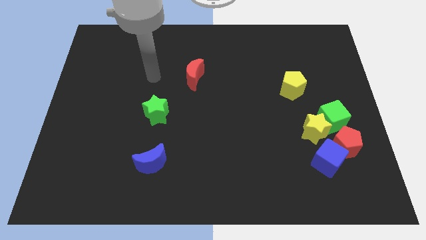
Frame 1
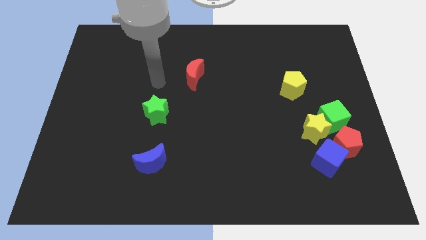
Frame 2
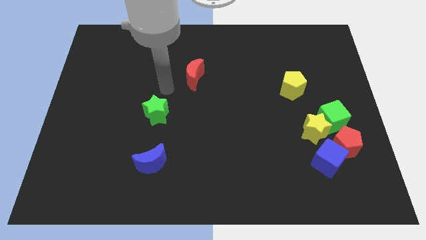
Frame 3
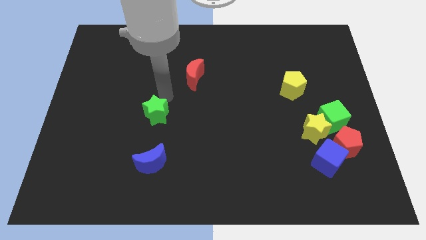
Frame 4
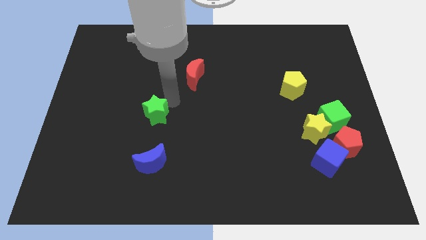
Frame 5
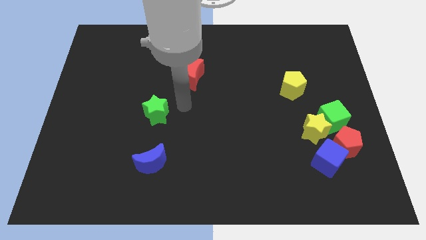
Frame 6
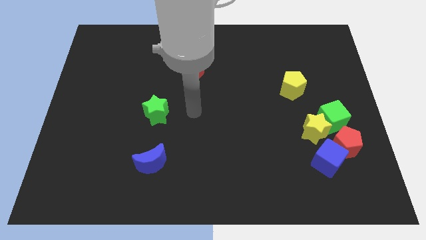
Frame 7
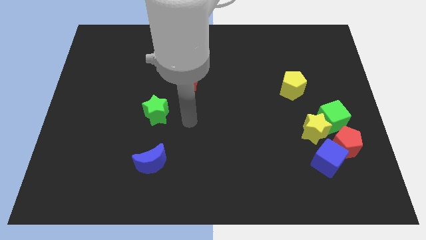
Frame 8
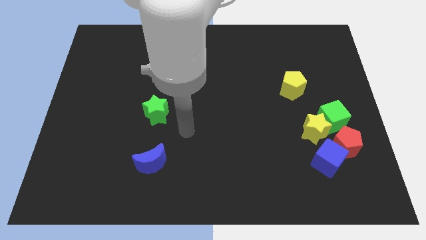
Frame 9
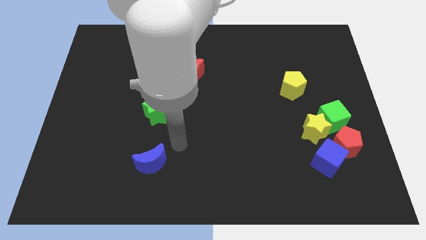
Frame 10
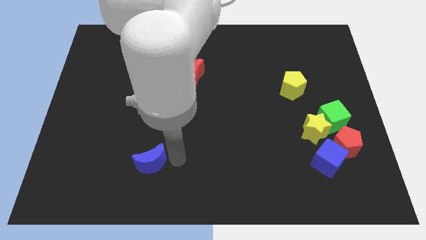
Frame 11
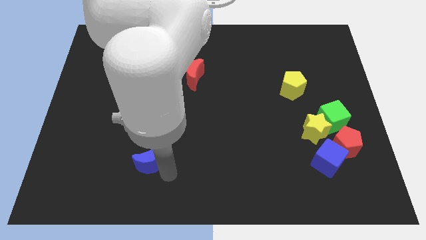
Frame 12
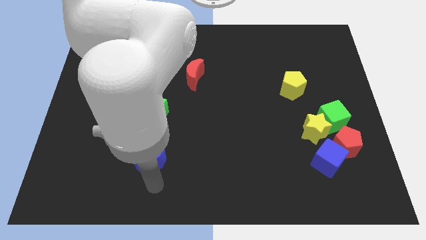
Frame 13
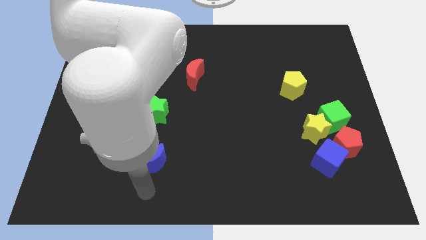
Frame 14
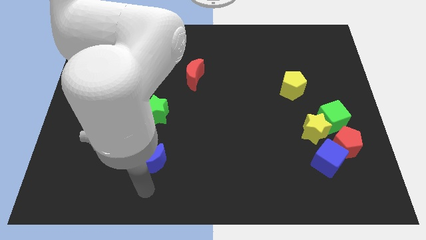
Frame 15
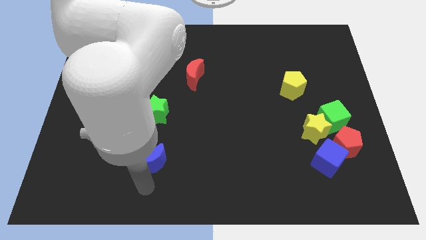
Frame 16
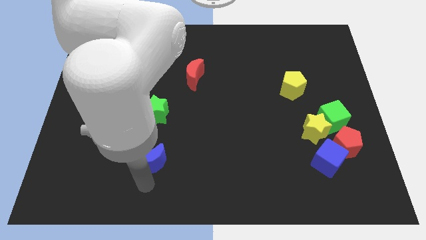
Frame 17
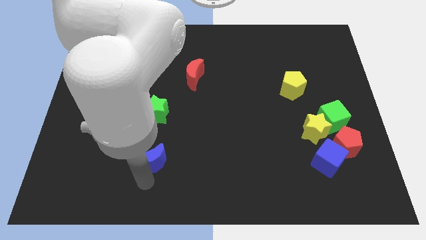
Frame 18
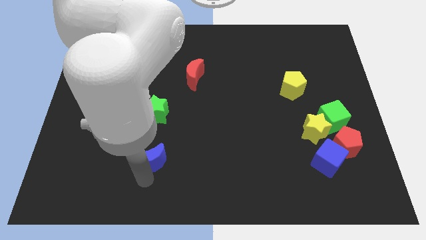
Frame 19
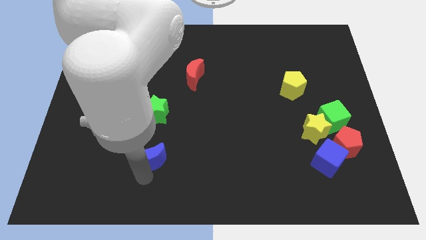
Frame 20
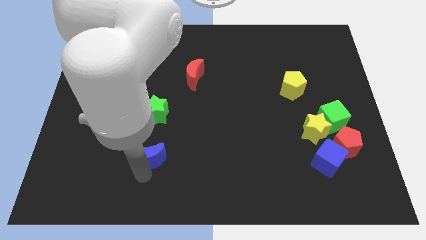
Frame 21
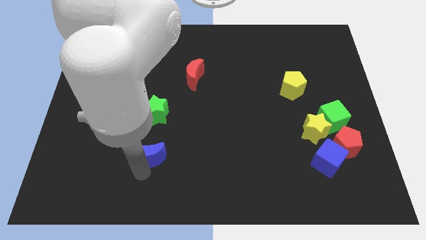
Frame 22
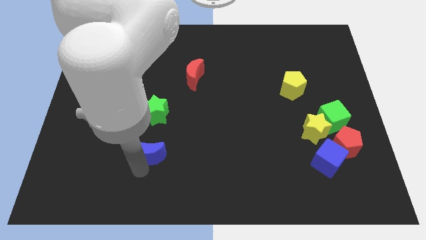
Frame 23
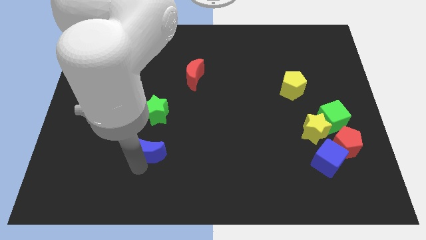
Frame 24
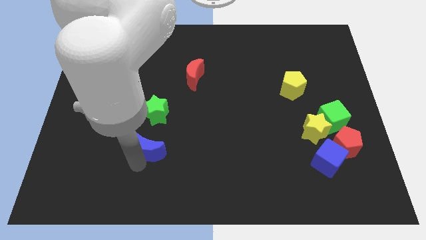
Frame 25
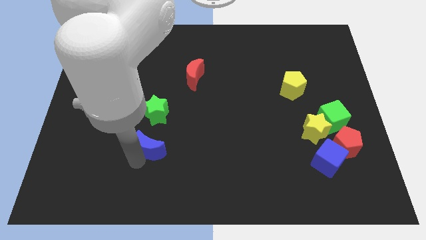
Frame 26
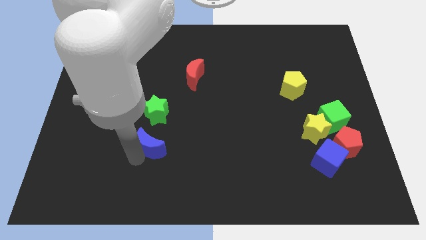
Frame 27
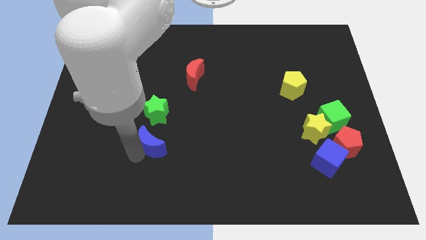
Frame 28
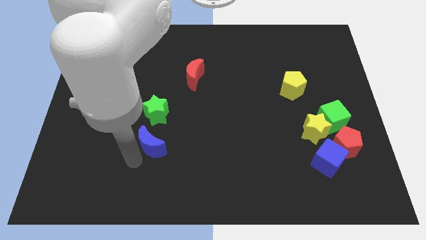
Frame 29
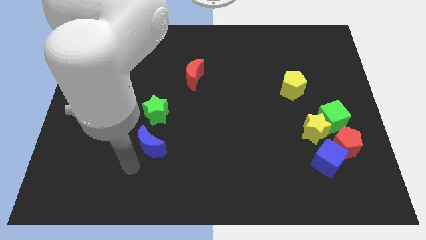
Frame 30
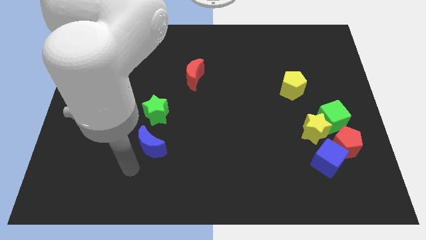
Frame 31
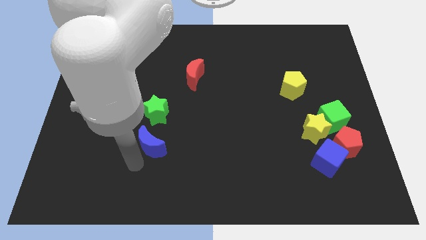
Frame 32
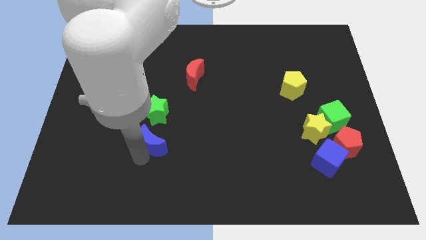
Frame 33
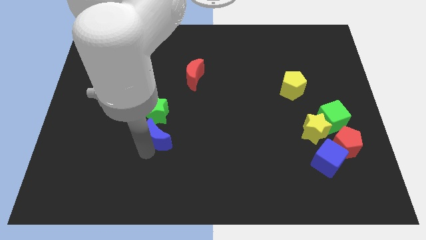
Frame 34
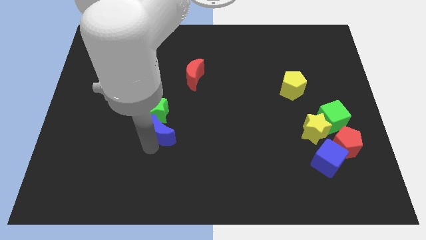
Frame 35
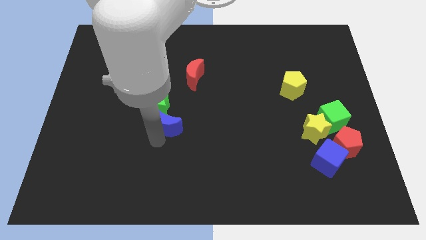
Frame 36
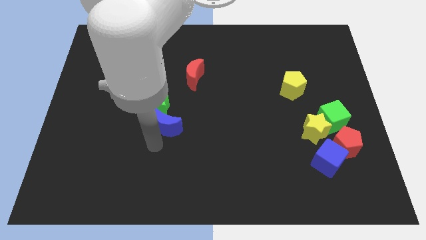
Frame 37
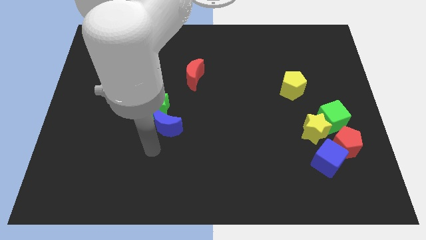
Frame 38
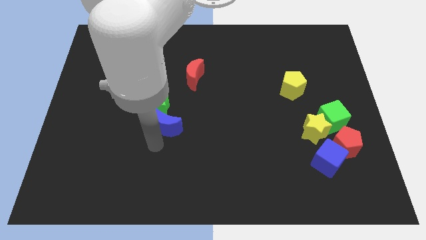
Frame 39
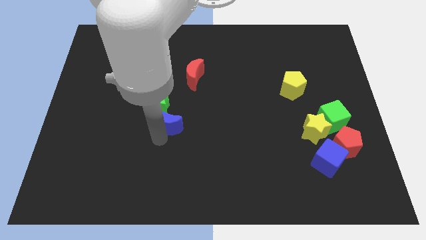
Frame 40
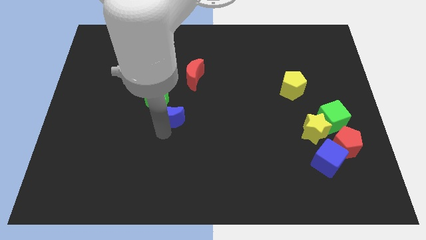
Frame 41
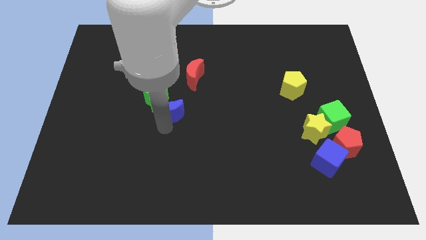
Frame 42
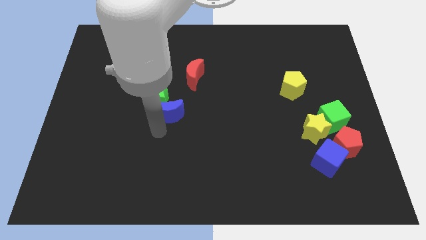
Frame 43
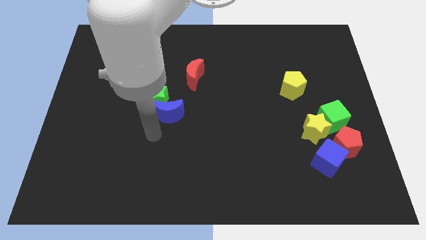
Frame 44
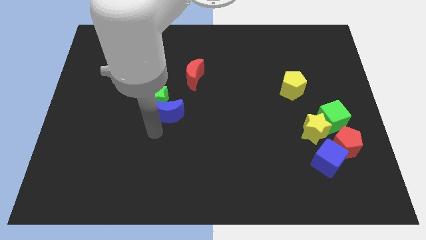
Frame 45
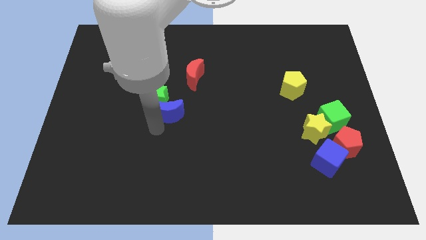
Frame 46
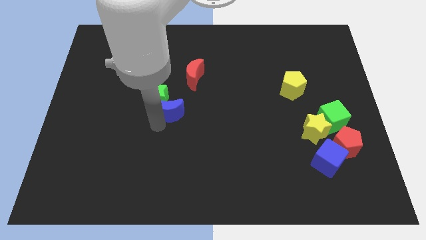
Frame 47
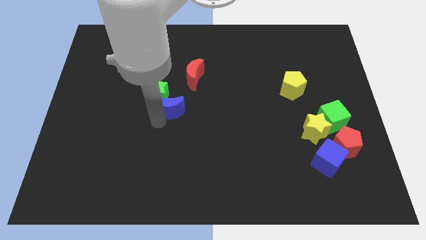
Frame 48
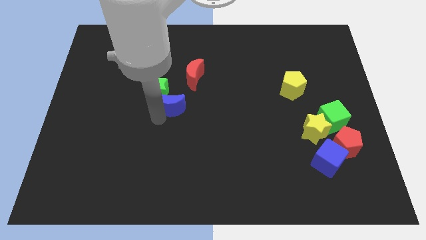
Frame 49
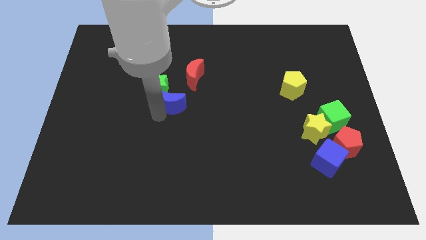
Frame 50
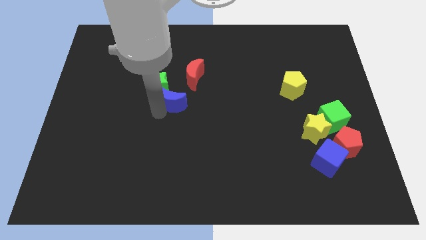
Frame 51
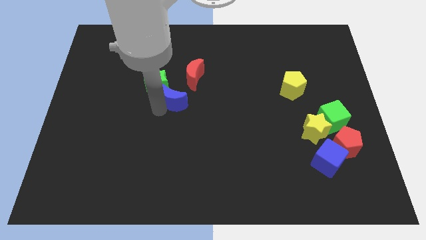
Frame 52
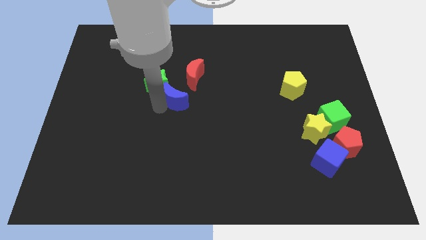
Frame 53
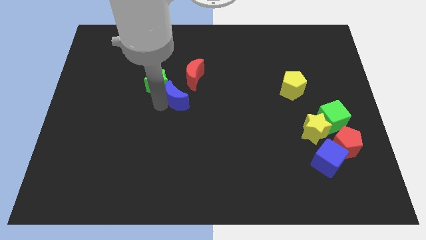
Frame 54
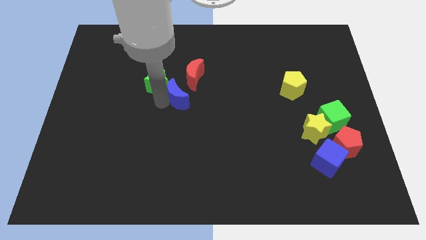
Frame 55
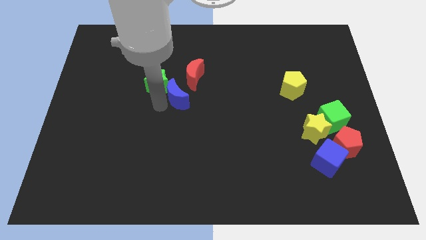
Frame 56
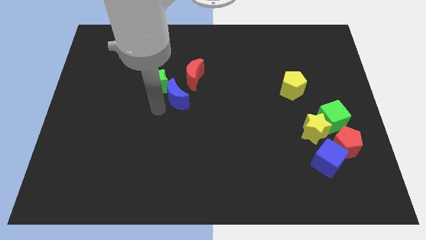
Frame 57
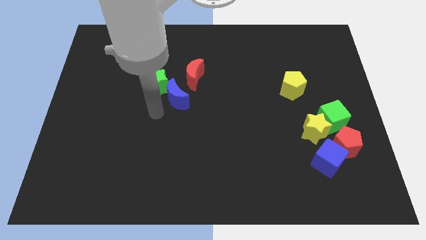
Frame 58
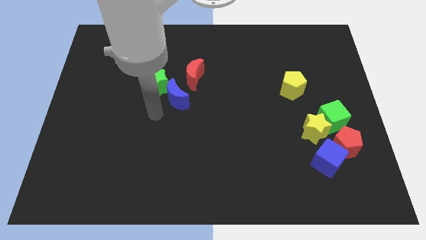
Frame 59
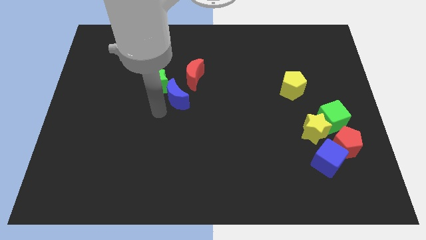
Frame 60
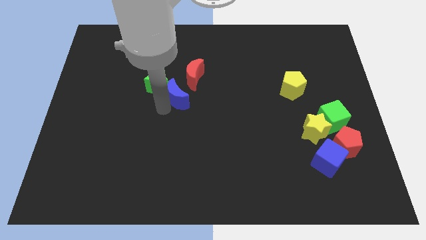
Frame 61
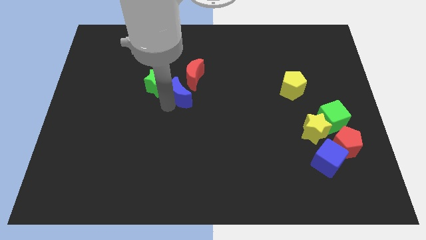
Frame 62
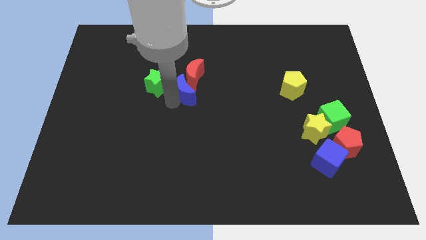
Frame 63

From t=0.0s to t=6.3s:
move the blue moon towards the red moon

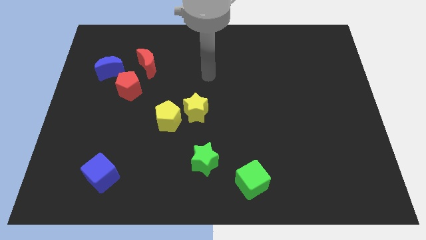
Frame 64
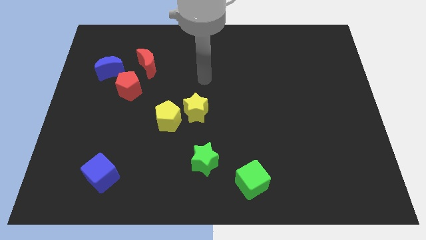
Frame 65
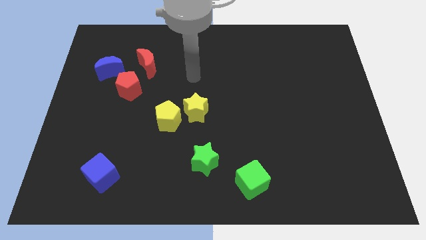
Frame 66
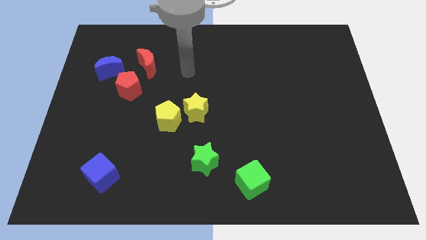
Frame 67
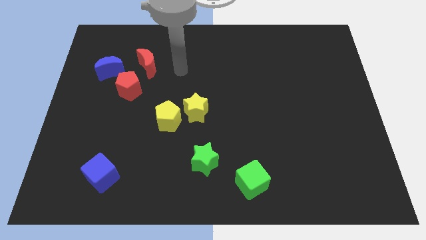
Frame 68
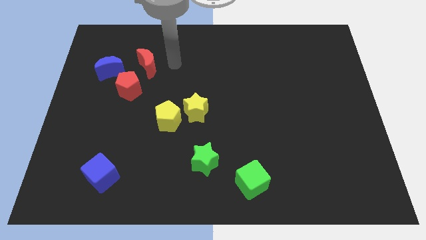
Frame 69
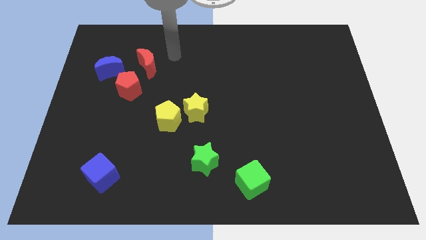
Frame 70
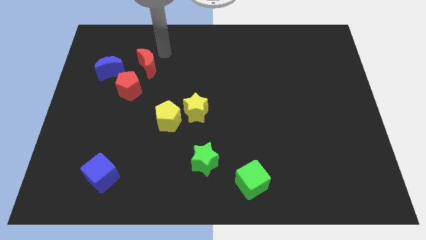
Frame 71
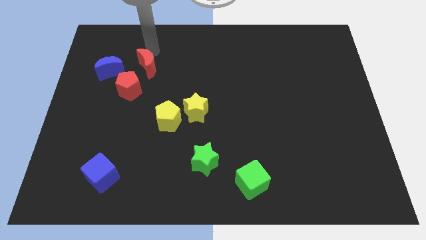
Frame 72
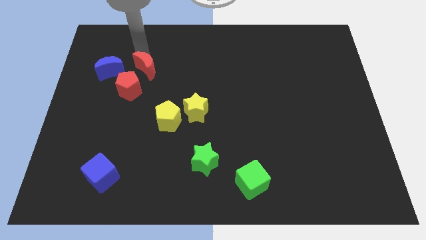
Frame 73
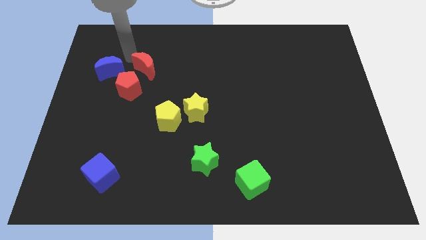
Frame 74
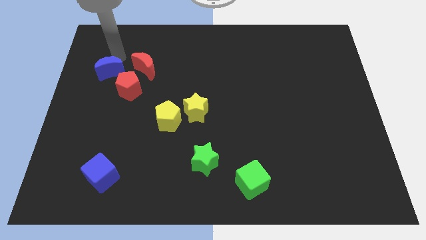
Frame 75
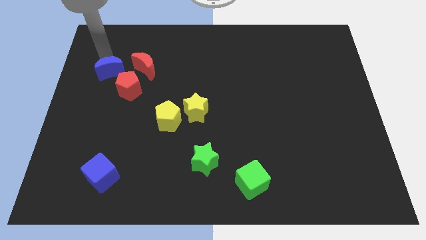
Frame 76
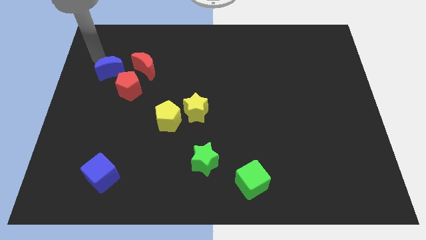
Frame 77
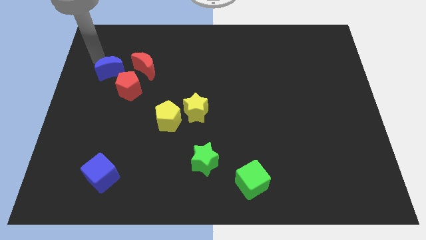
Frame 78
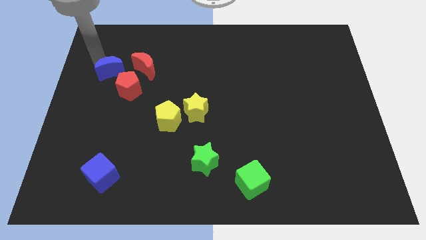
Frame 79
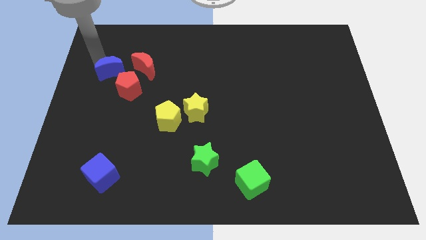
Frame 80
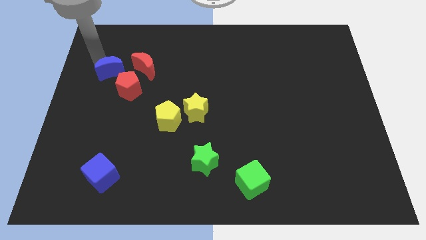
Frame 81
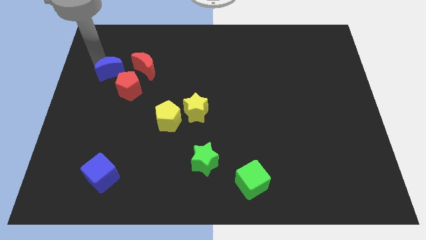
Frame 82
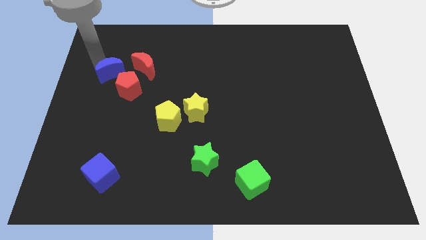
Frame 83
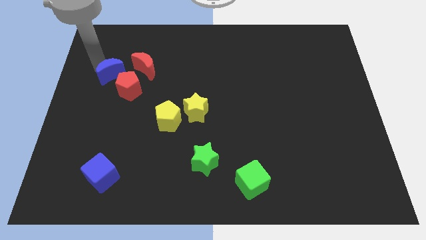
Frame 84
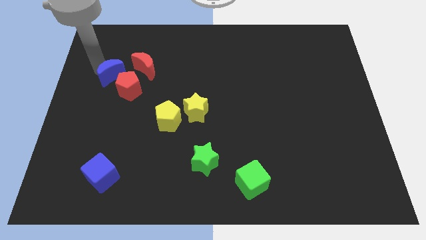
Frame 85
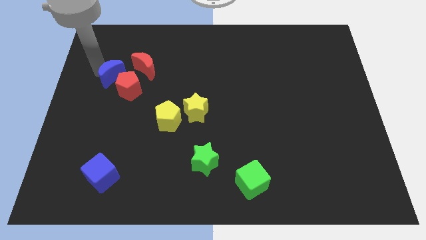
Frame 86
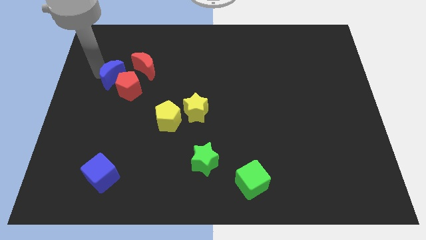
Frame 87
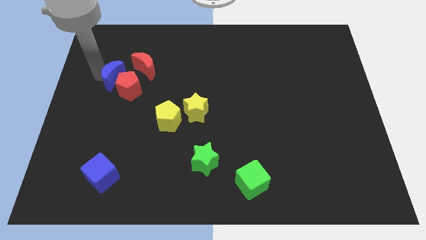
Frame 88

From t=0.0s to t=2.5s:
slide the blue moon close to the red pentagon
